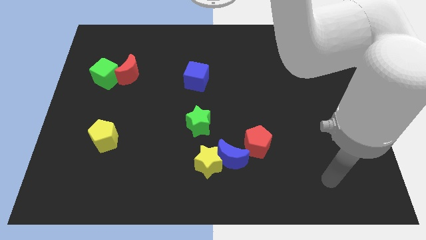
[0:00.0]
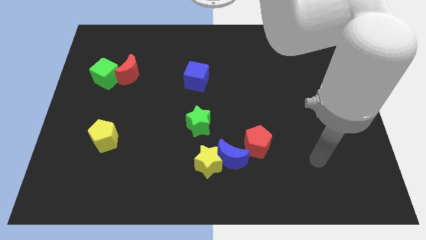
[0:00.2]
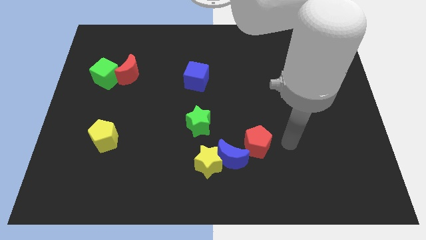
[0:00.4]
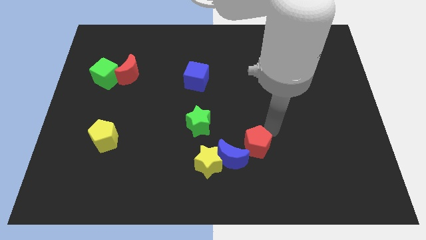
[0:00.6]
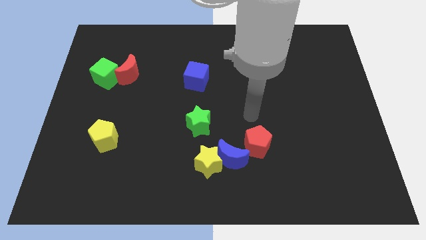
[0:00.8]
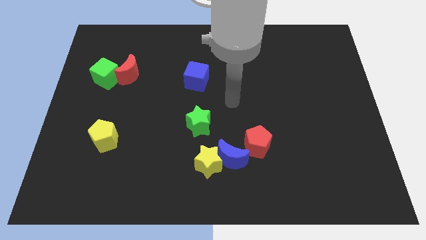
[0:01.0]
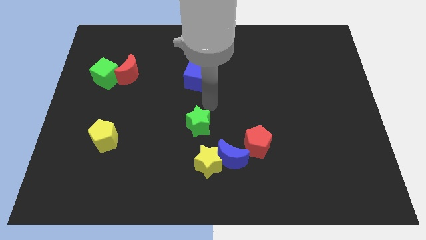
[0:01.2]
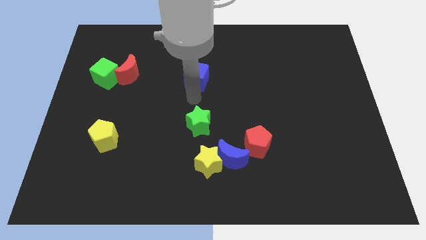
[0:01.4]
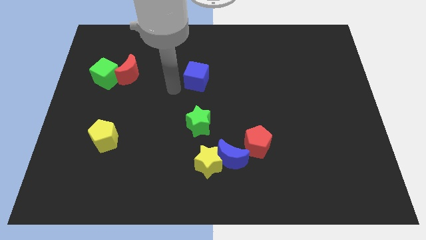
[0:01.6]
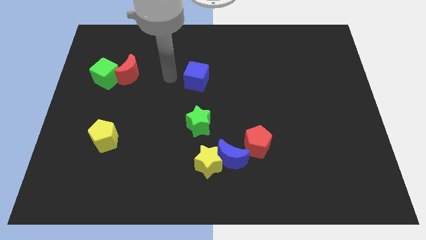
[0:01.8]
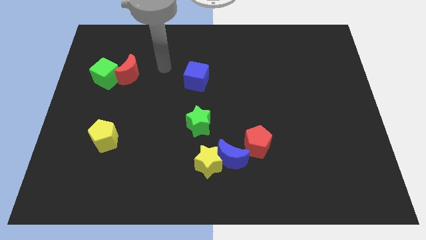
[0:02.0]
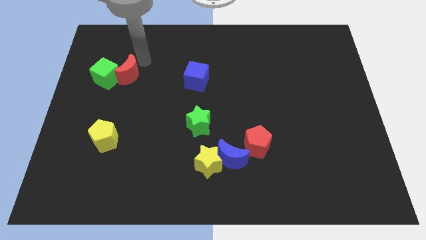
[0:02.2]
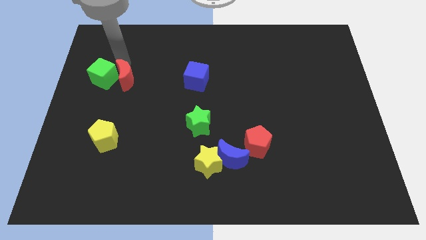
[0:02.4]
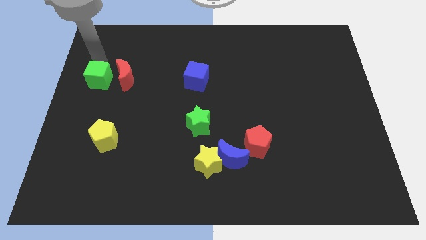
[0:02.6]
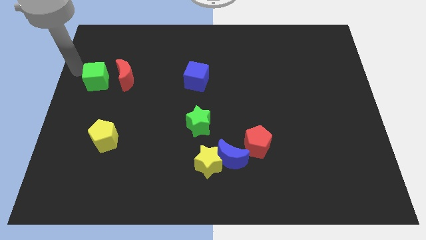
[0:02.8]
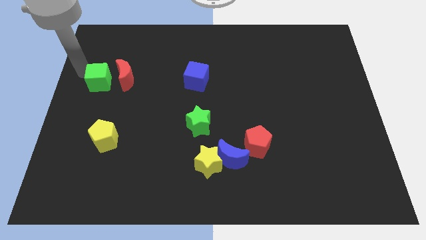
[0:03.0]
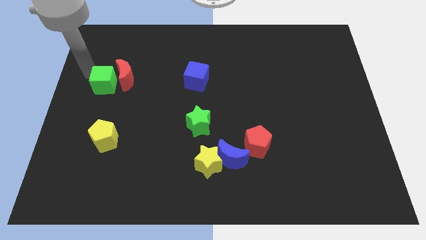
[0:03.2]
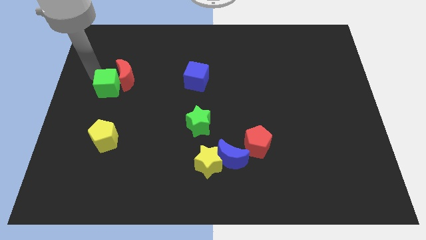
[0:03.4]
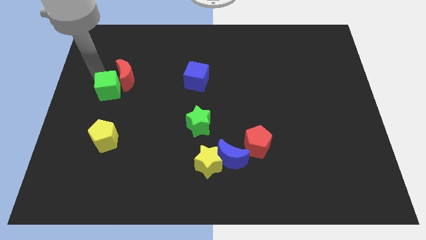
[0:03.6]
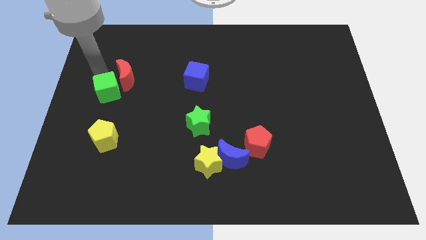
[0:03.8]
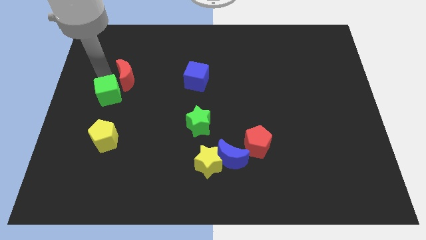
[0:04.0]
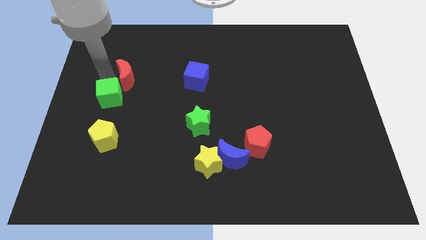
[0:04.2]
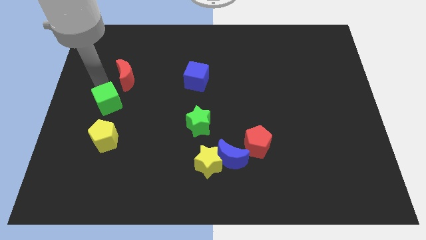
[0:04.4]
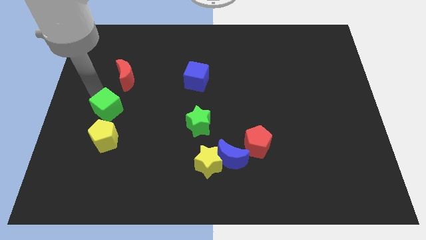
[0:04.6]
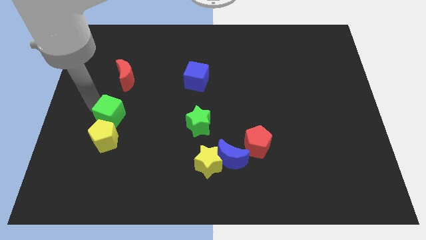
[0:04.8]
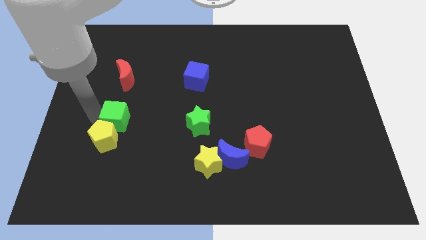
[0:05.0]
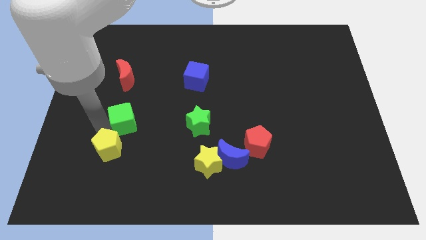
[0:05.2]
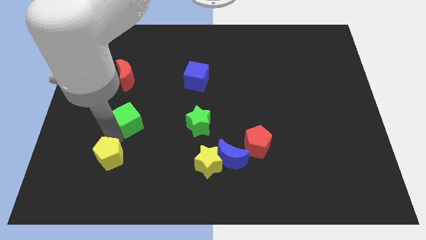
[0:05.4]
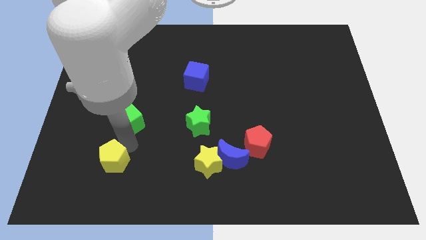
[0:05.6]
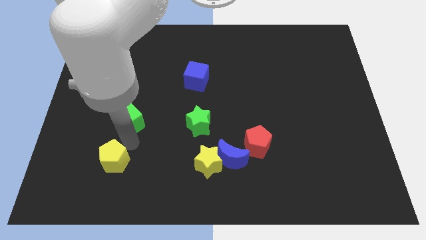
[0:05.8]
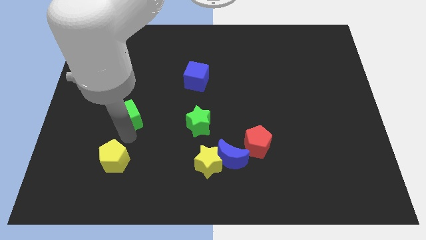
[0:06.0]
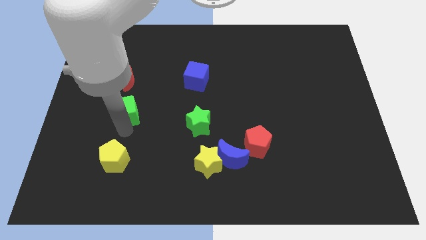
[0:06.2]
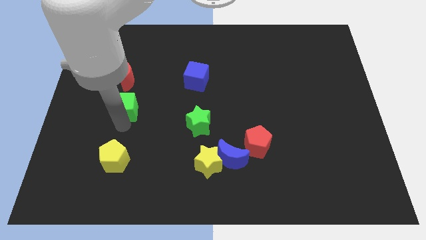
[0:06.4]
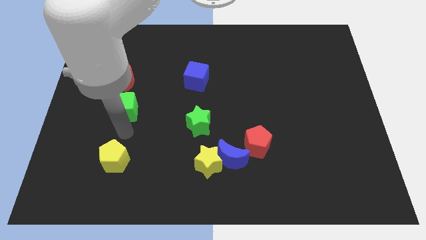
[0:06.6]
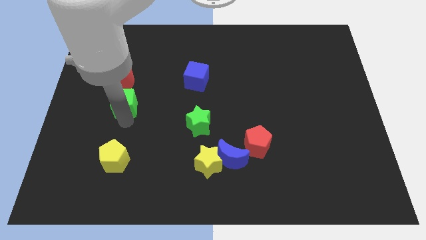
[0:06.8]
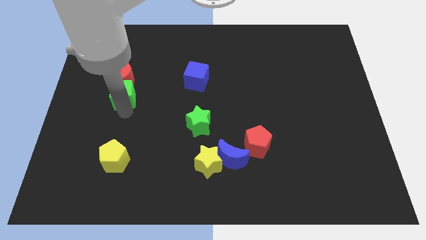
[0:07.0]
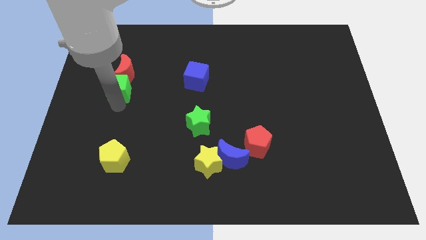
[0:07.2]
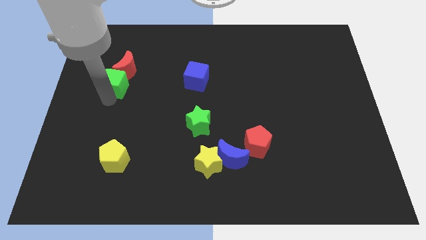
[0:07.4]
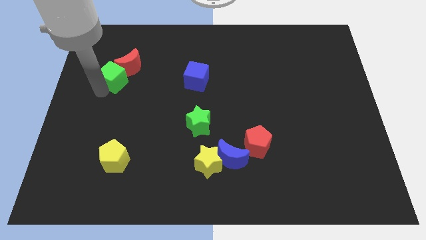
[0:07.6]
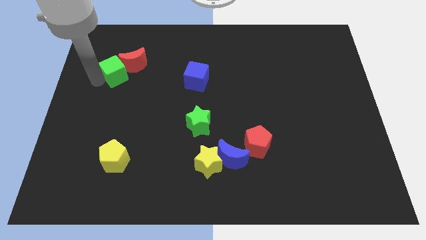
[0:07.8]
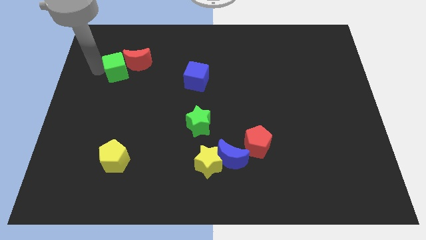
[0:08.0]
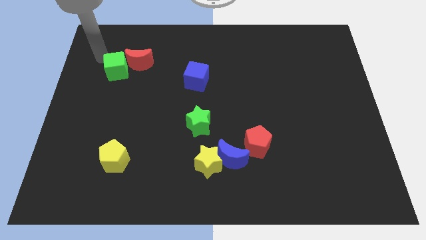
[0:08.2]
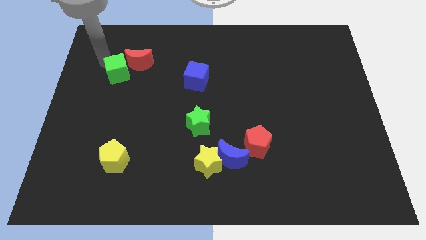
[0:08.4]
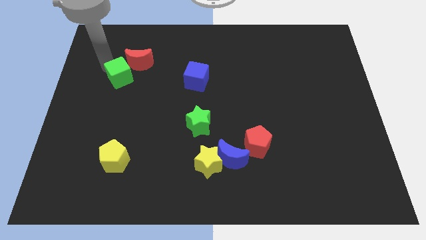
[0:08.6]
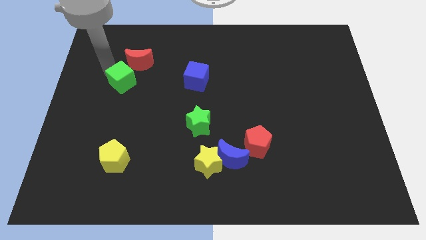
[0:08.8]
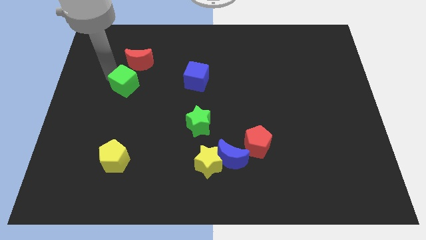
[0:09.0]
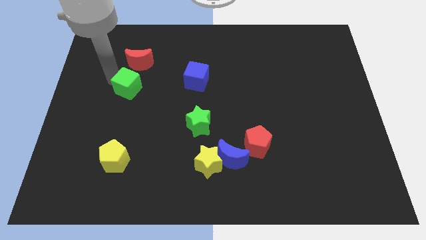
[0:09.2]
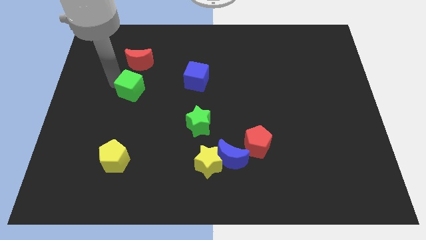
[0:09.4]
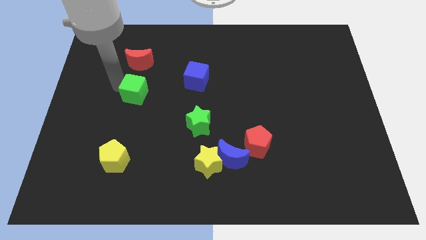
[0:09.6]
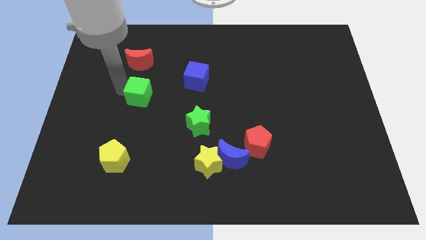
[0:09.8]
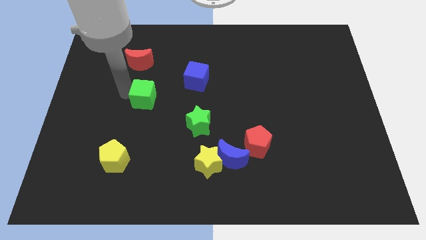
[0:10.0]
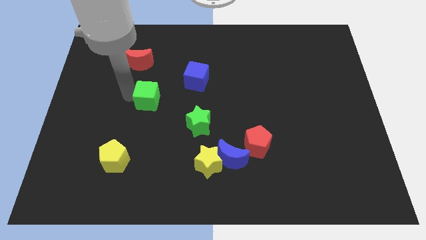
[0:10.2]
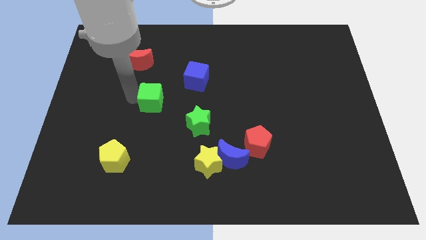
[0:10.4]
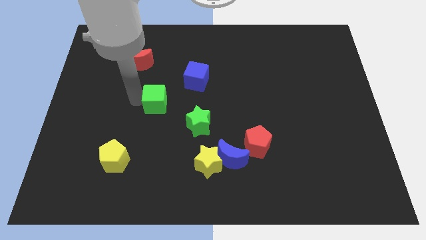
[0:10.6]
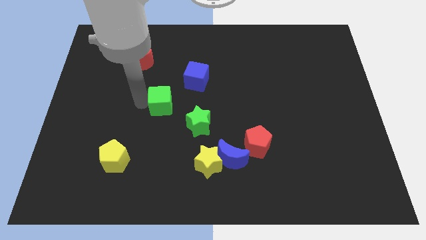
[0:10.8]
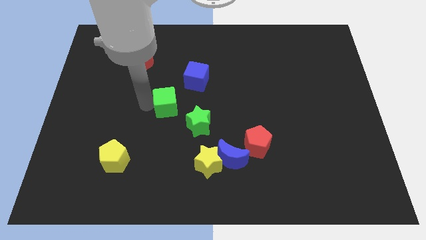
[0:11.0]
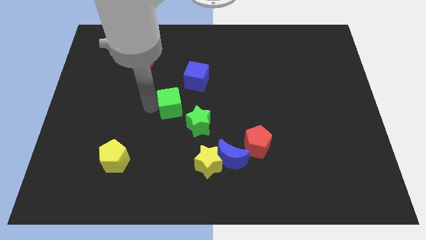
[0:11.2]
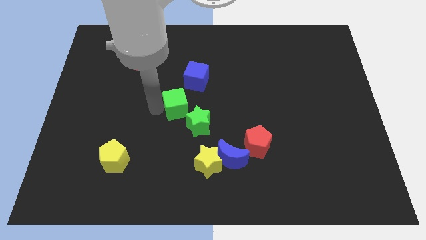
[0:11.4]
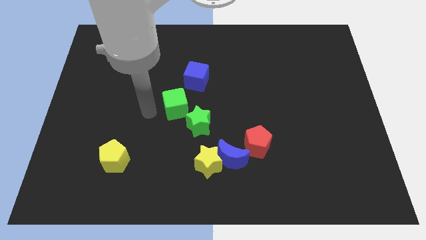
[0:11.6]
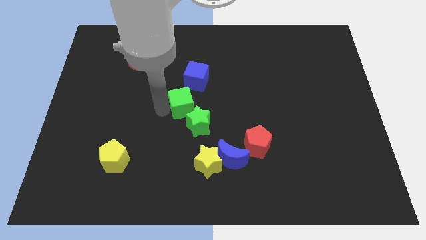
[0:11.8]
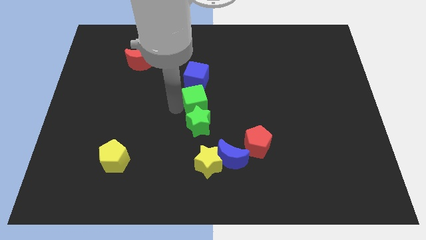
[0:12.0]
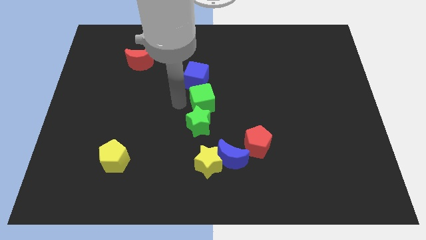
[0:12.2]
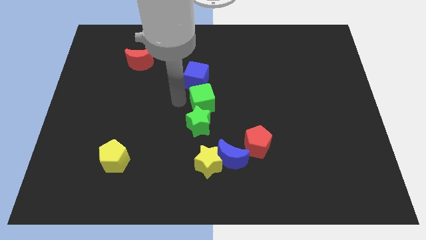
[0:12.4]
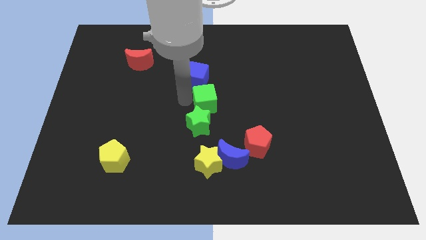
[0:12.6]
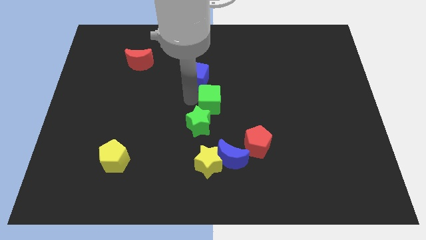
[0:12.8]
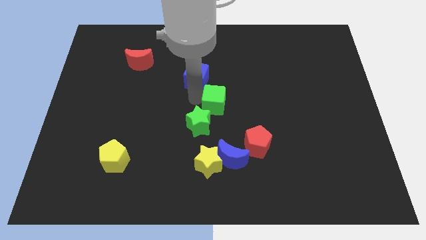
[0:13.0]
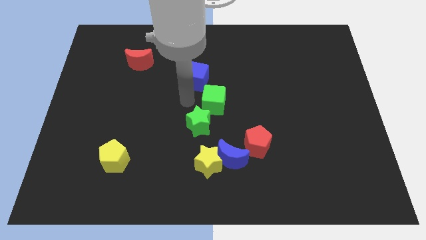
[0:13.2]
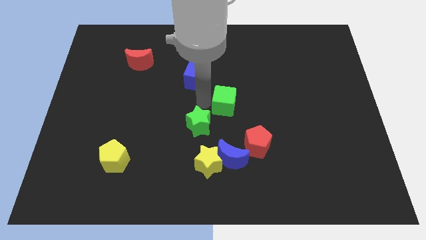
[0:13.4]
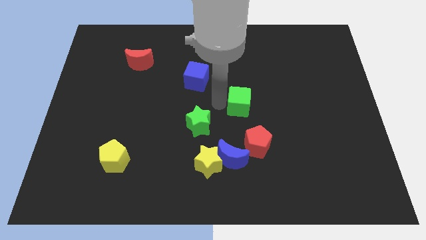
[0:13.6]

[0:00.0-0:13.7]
slide the green cube above the red pentagon

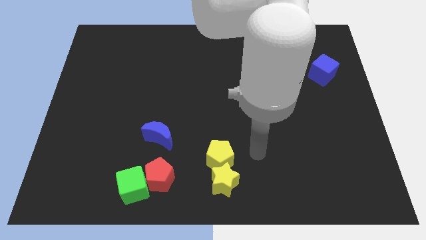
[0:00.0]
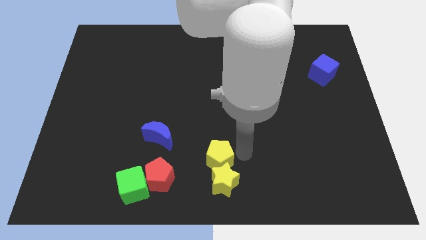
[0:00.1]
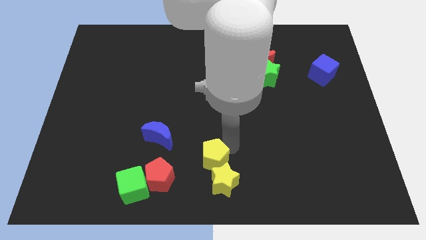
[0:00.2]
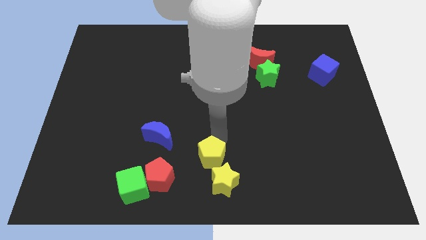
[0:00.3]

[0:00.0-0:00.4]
move the red pentagon to the bottom left of the yellow pentagon
